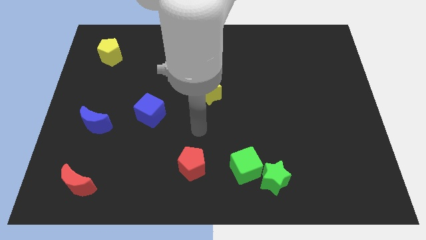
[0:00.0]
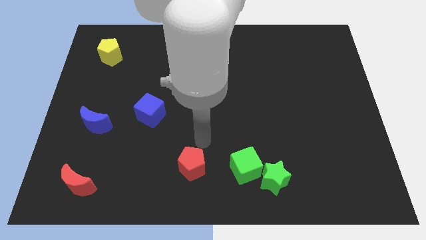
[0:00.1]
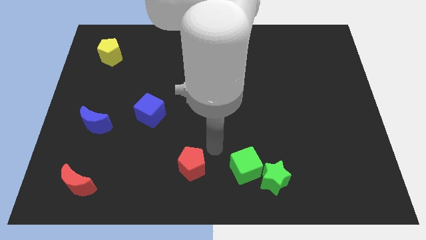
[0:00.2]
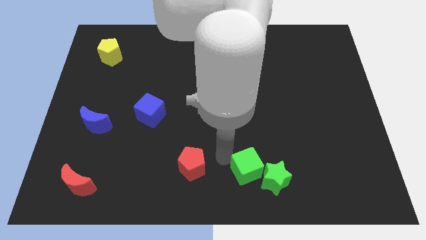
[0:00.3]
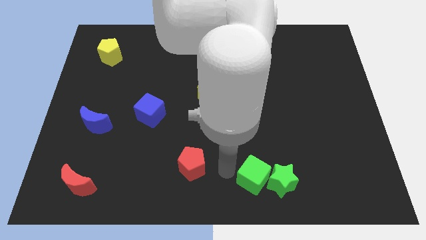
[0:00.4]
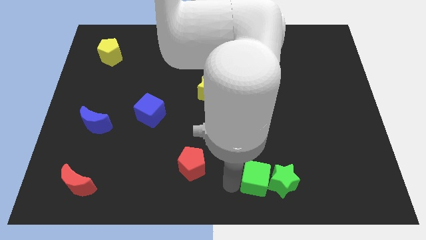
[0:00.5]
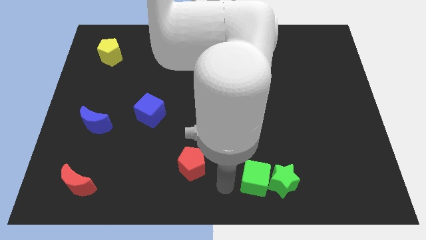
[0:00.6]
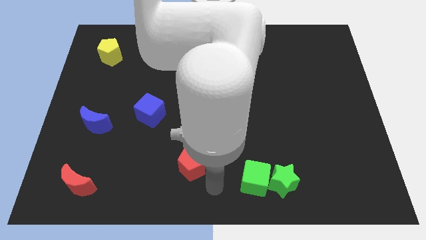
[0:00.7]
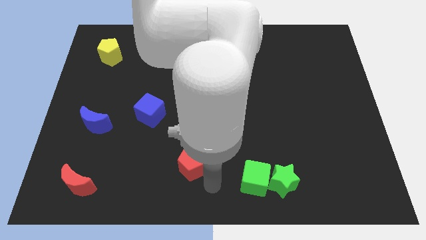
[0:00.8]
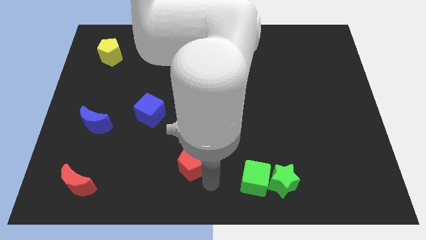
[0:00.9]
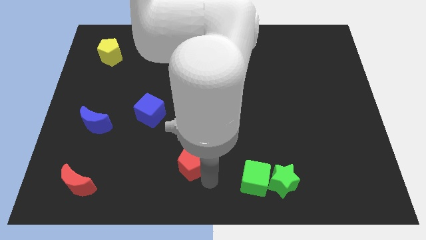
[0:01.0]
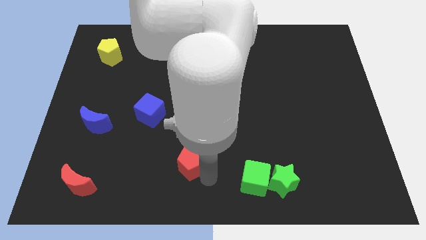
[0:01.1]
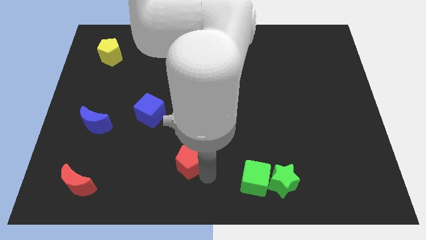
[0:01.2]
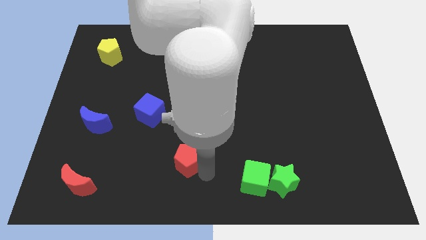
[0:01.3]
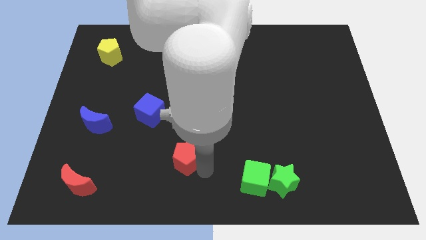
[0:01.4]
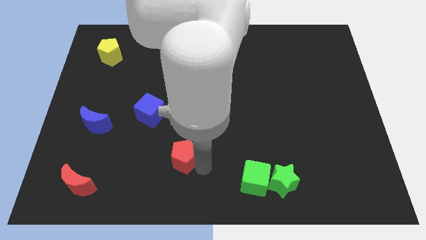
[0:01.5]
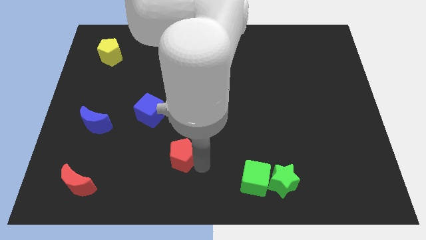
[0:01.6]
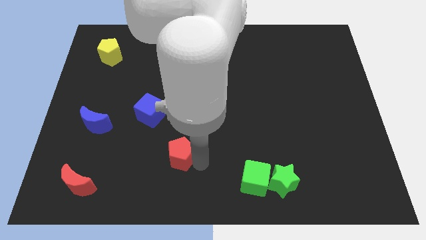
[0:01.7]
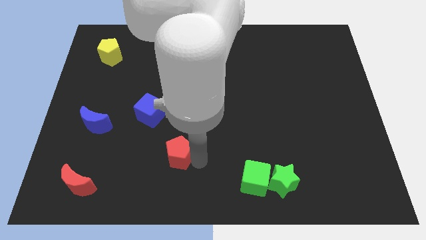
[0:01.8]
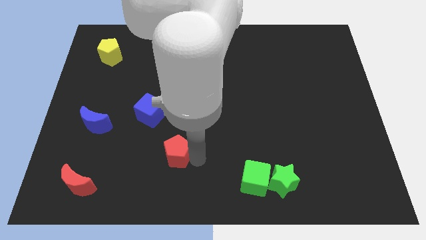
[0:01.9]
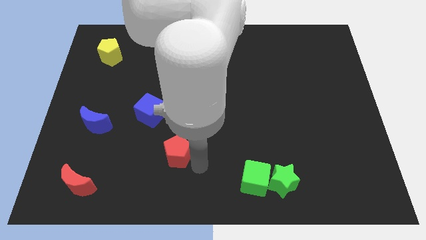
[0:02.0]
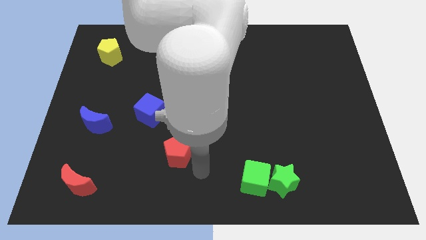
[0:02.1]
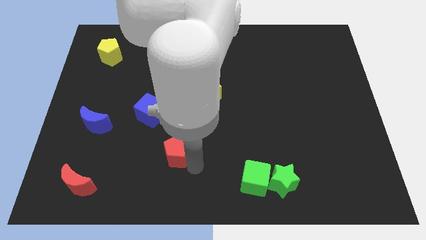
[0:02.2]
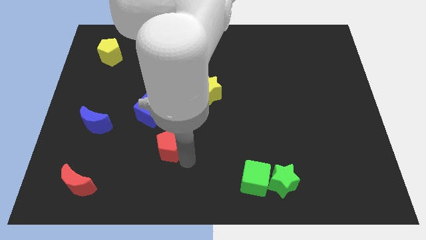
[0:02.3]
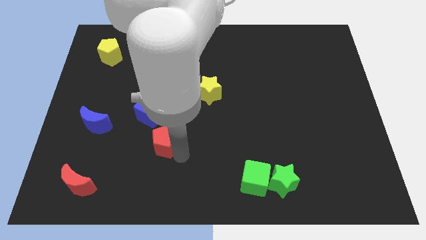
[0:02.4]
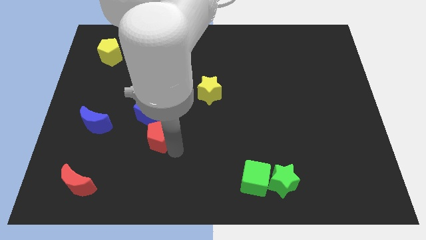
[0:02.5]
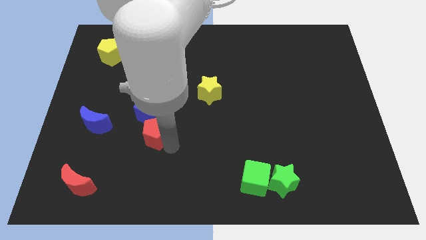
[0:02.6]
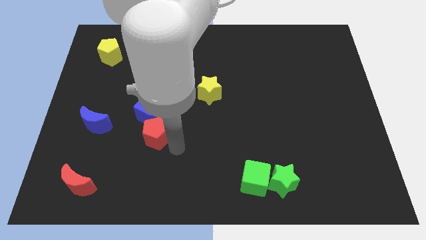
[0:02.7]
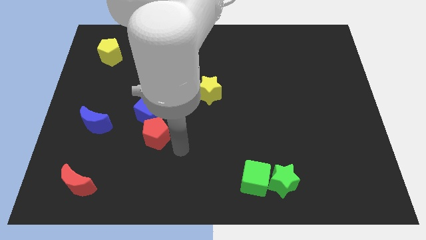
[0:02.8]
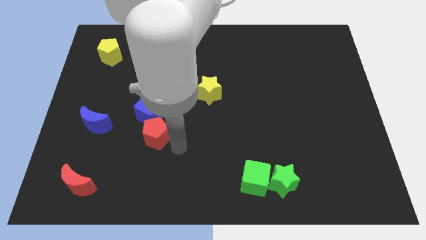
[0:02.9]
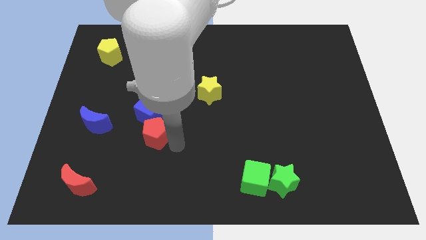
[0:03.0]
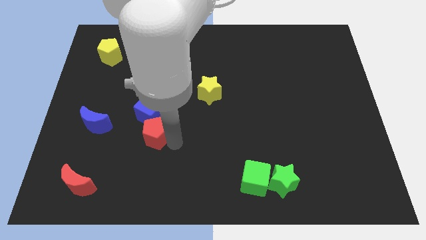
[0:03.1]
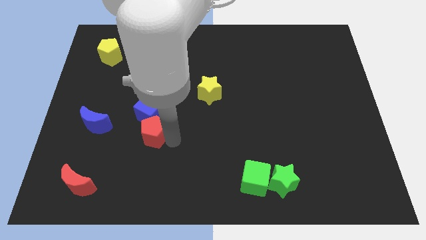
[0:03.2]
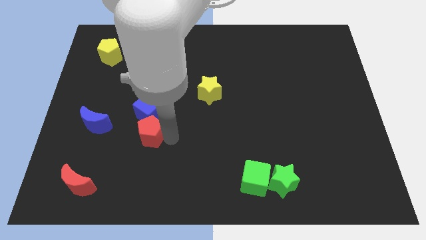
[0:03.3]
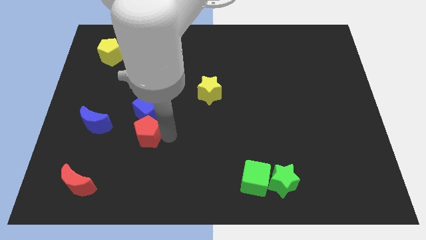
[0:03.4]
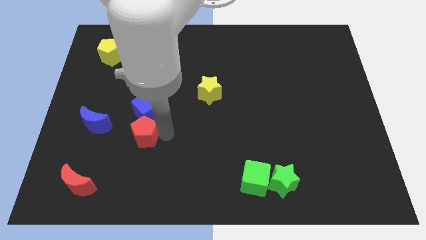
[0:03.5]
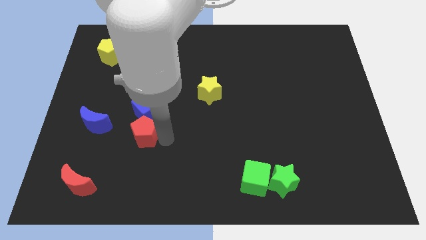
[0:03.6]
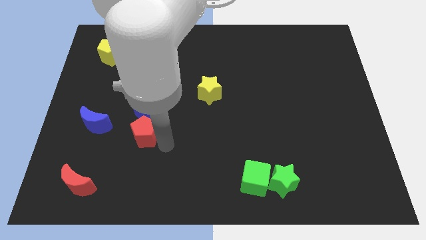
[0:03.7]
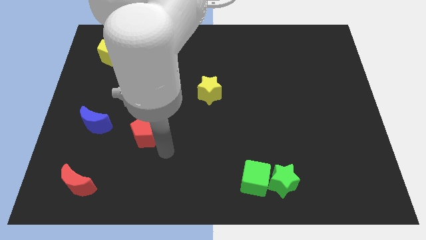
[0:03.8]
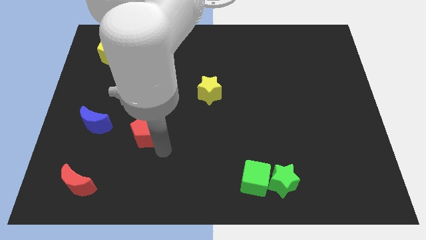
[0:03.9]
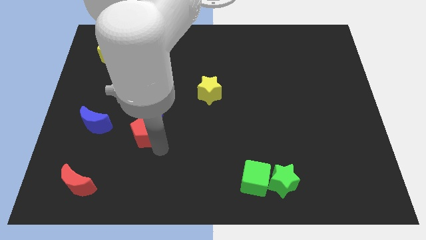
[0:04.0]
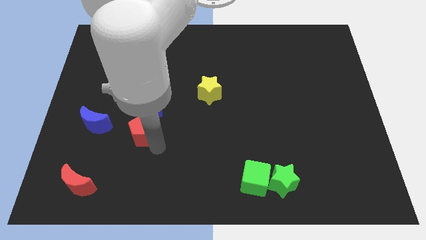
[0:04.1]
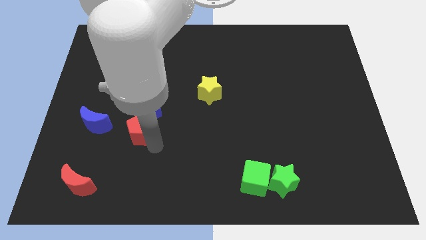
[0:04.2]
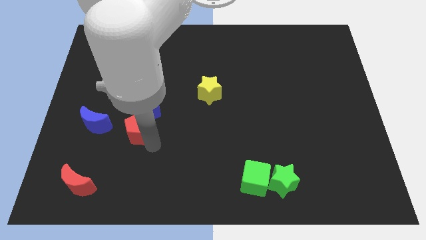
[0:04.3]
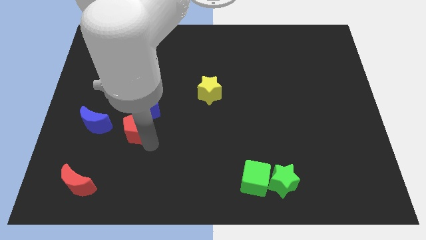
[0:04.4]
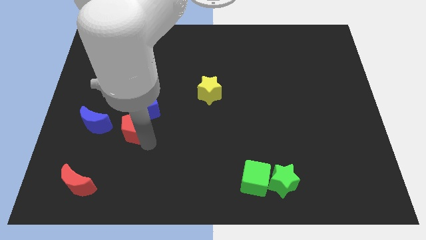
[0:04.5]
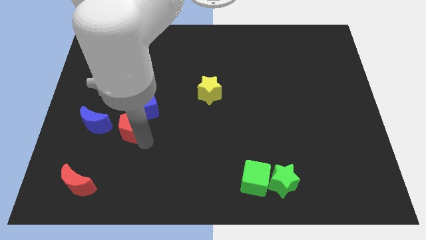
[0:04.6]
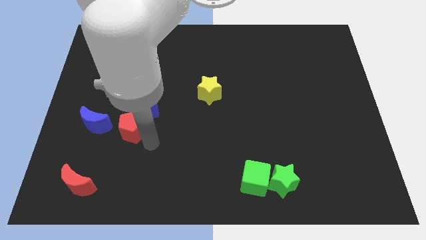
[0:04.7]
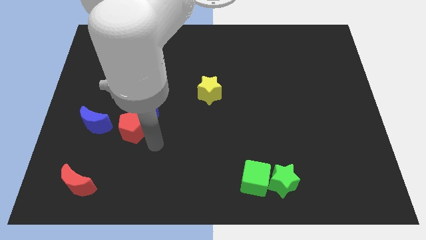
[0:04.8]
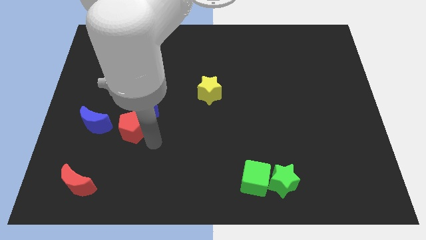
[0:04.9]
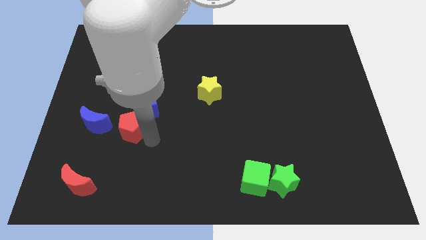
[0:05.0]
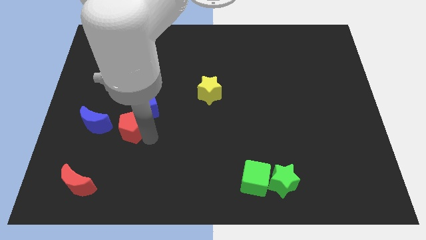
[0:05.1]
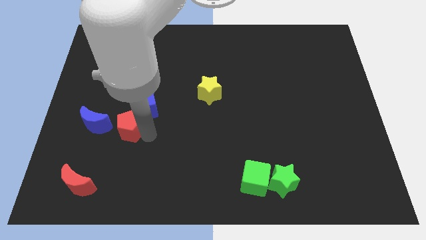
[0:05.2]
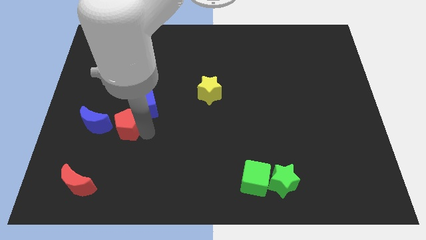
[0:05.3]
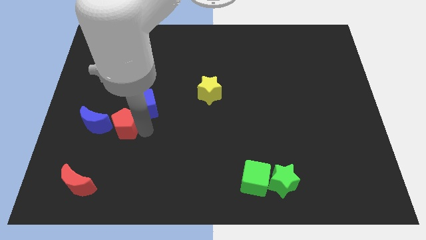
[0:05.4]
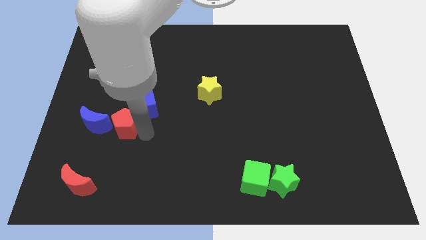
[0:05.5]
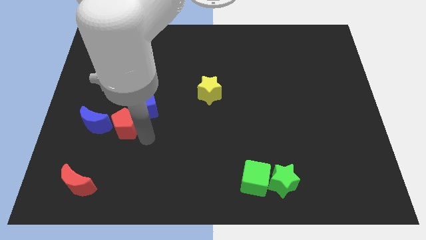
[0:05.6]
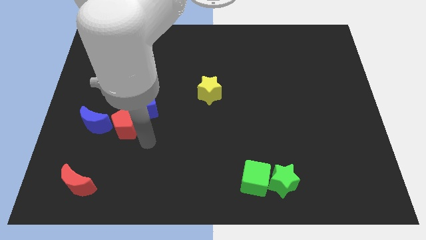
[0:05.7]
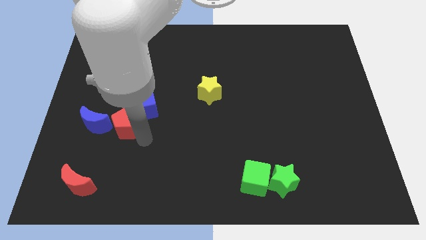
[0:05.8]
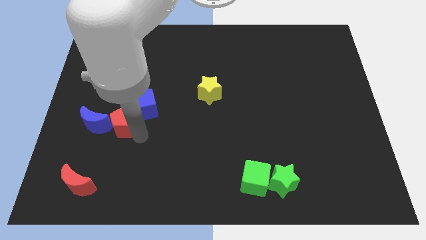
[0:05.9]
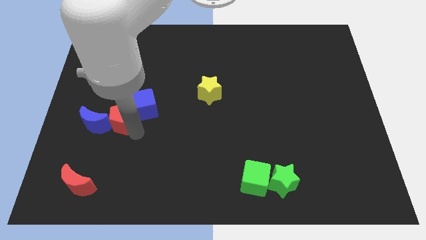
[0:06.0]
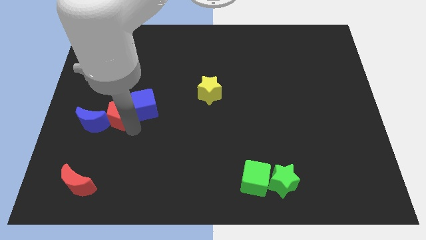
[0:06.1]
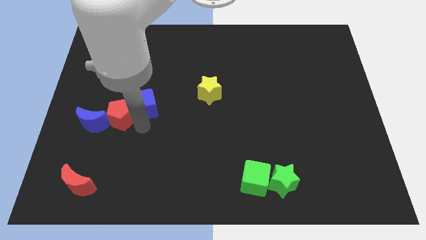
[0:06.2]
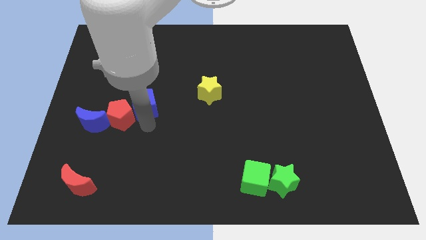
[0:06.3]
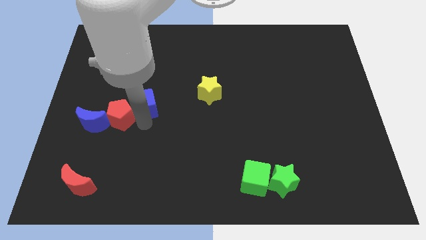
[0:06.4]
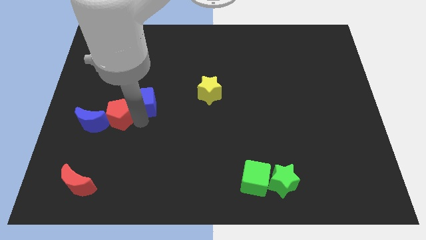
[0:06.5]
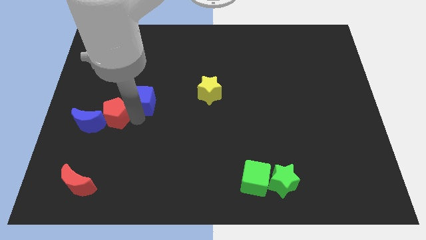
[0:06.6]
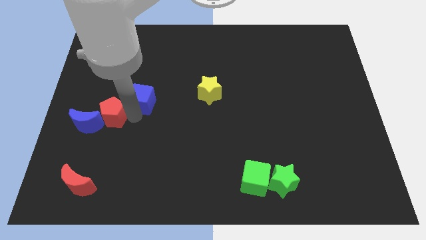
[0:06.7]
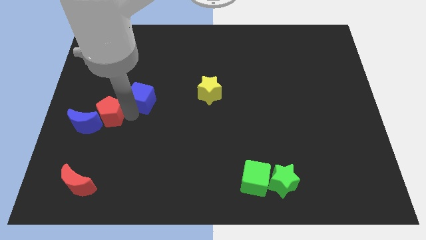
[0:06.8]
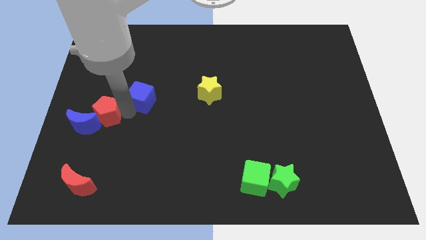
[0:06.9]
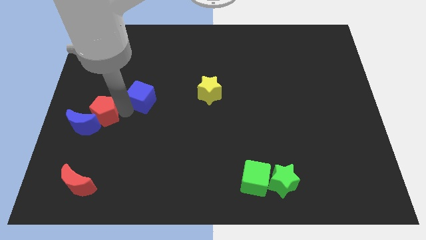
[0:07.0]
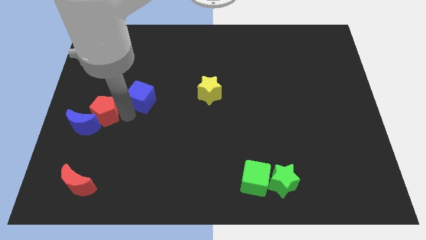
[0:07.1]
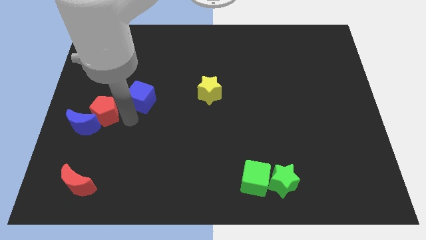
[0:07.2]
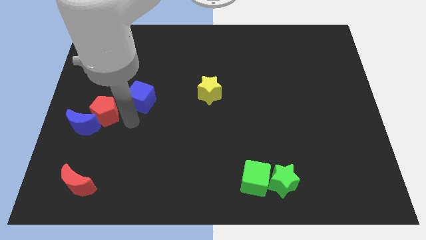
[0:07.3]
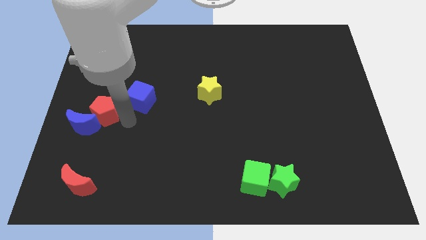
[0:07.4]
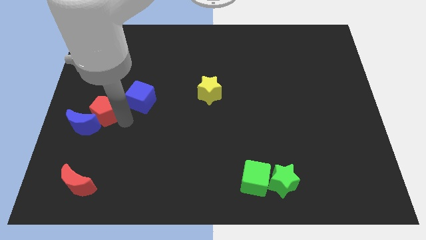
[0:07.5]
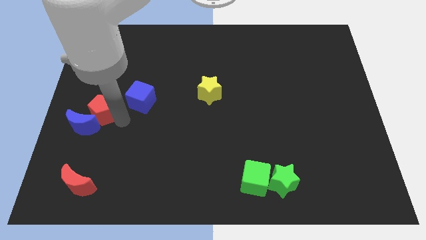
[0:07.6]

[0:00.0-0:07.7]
move the red pentagon to the center left
